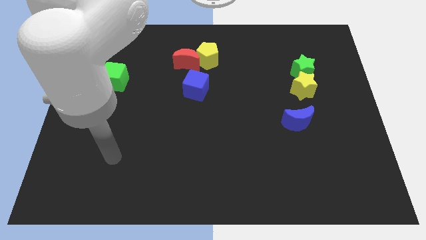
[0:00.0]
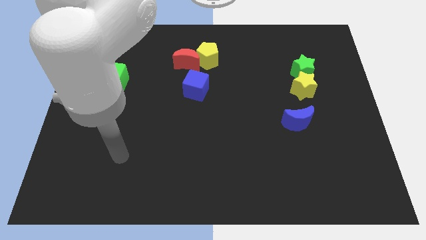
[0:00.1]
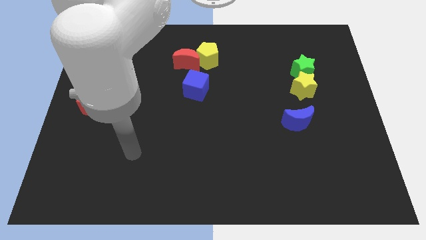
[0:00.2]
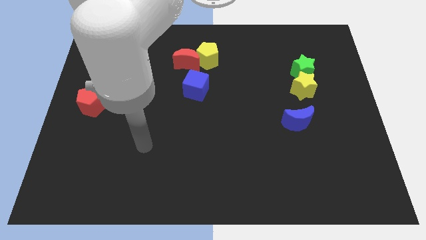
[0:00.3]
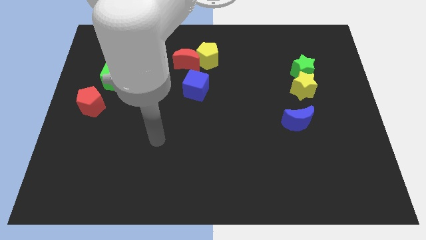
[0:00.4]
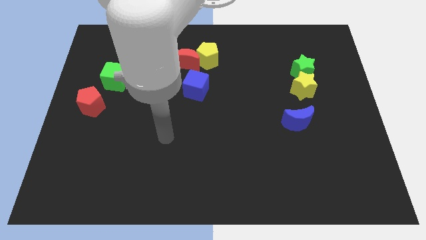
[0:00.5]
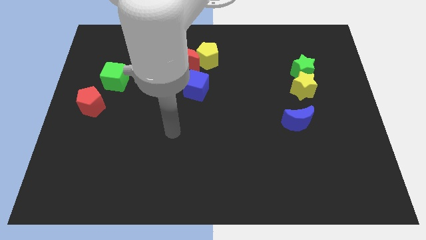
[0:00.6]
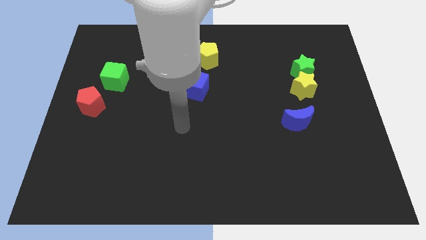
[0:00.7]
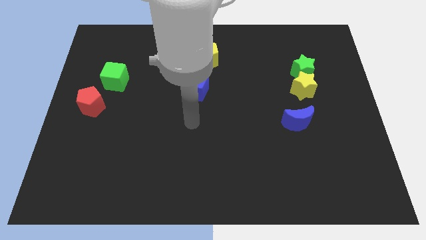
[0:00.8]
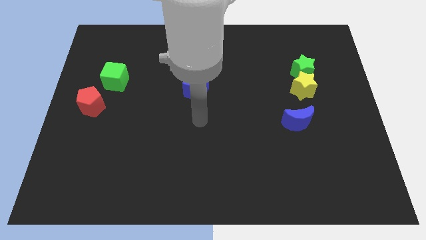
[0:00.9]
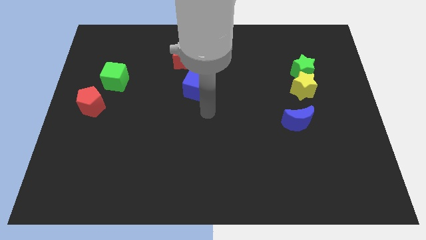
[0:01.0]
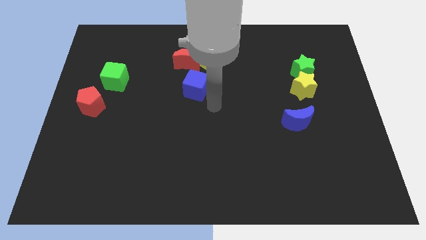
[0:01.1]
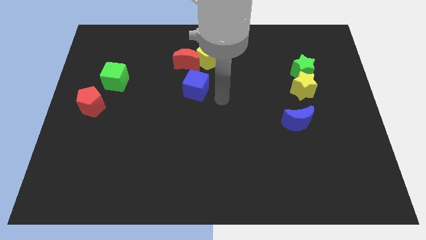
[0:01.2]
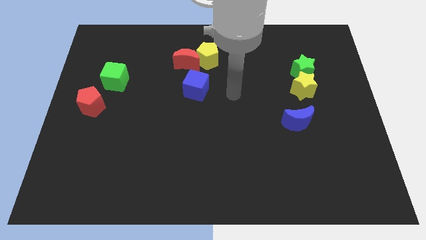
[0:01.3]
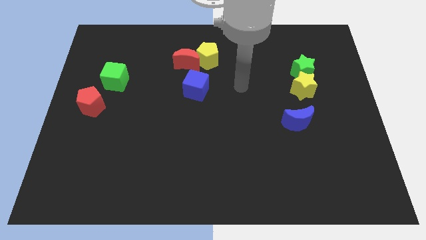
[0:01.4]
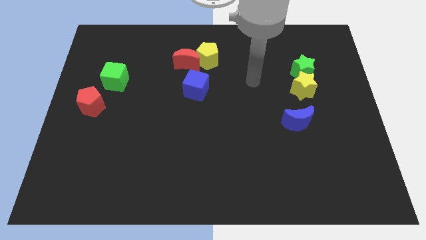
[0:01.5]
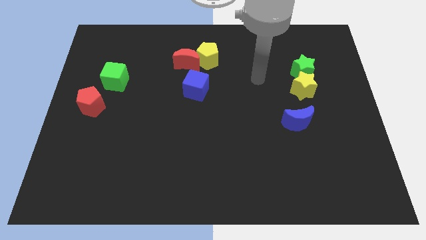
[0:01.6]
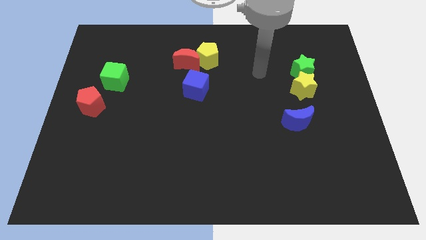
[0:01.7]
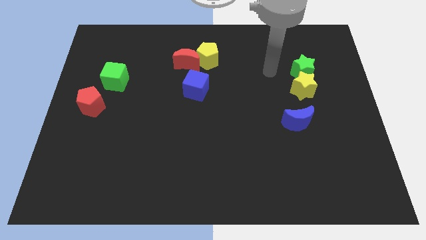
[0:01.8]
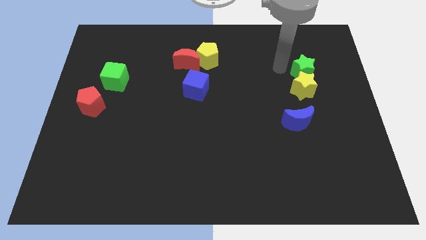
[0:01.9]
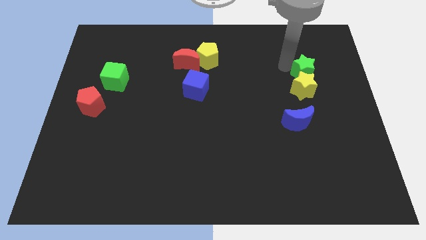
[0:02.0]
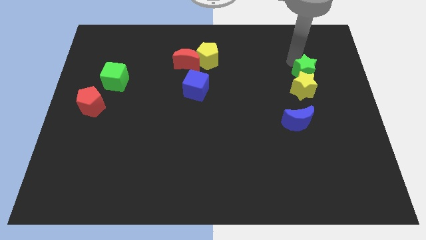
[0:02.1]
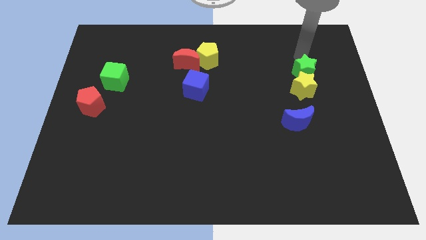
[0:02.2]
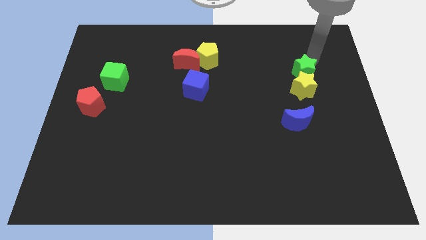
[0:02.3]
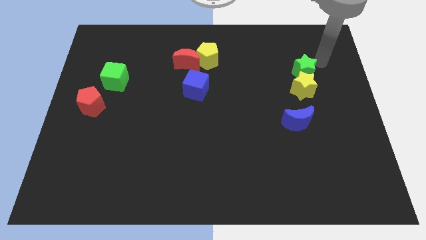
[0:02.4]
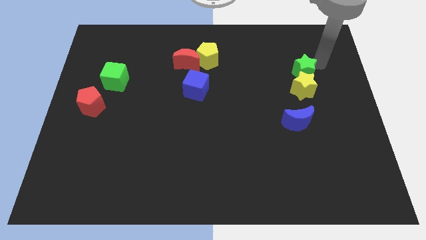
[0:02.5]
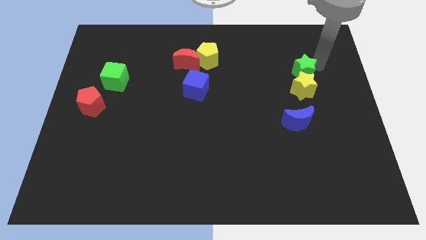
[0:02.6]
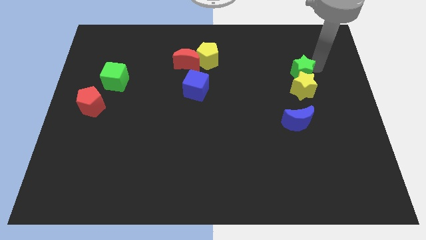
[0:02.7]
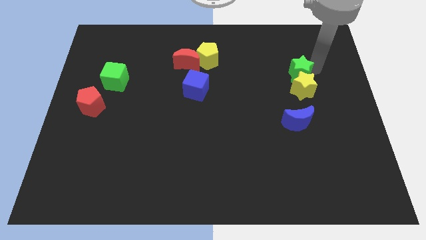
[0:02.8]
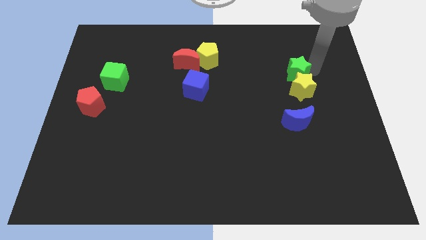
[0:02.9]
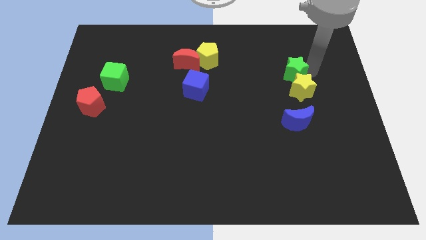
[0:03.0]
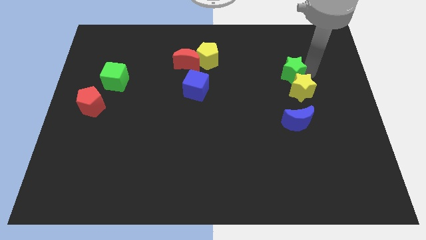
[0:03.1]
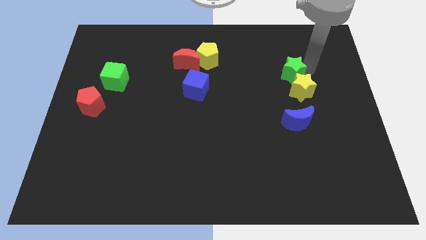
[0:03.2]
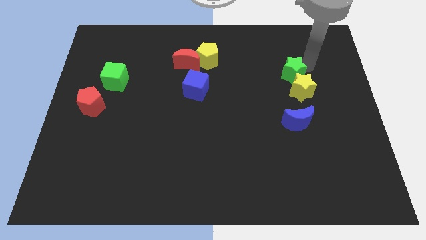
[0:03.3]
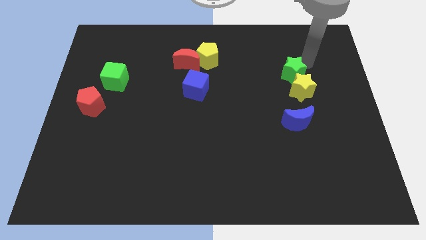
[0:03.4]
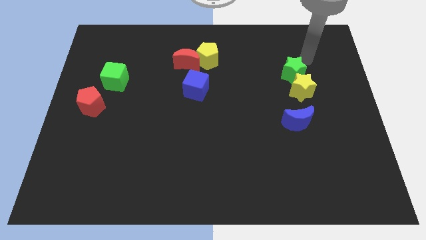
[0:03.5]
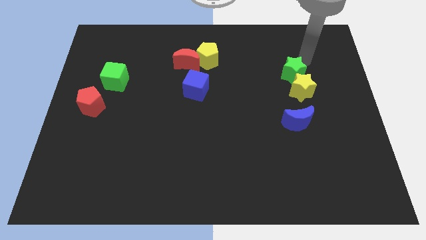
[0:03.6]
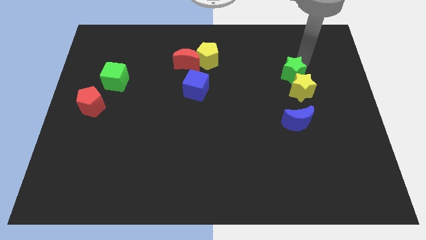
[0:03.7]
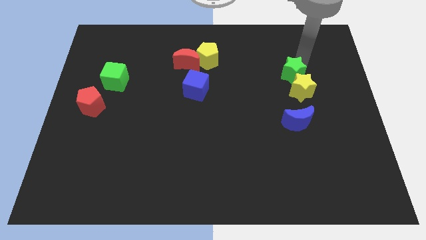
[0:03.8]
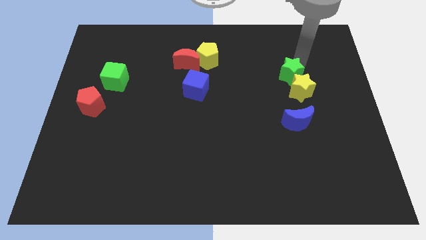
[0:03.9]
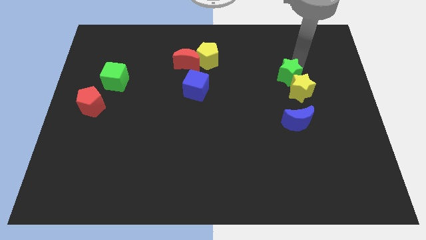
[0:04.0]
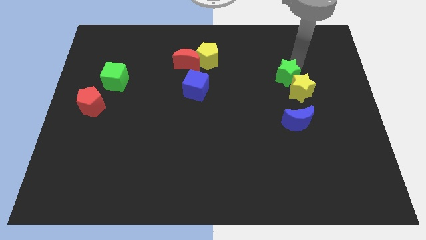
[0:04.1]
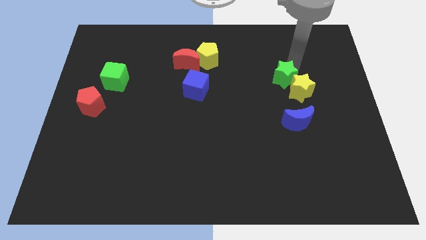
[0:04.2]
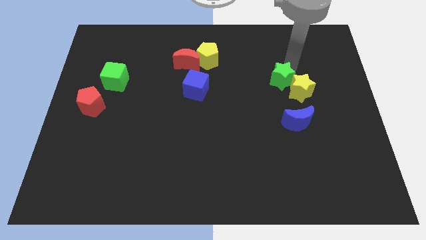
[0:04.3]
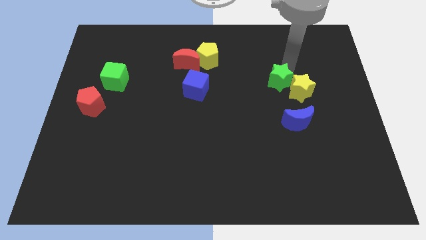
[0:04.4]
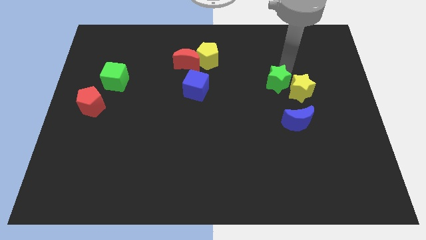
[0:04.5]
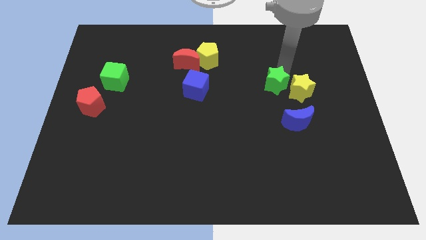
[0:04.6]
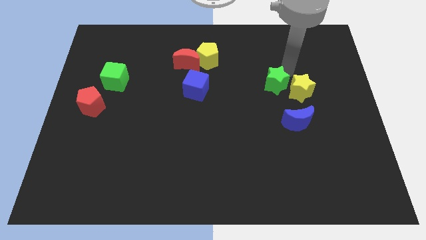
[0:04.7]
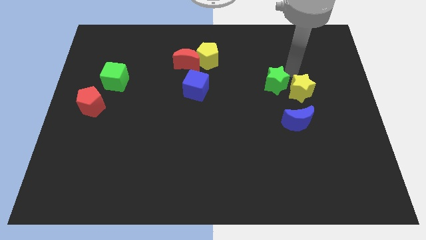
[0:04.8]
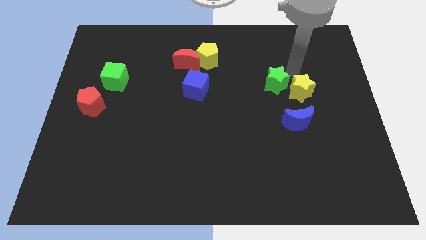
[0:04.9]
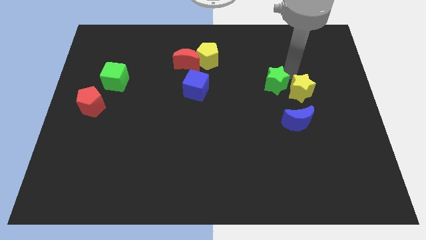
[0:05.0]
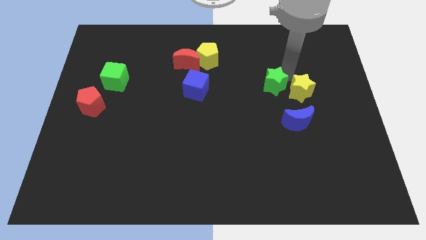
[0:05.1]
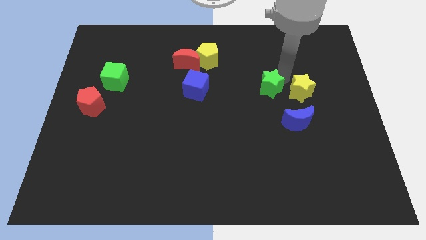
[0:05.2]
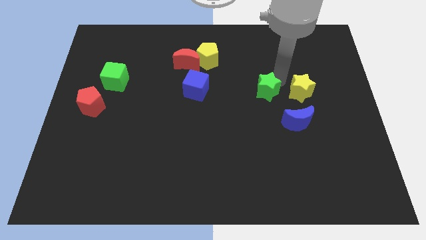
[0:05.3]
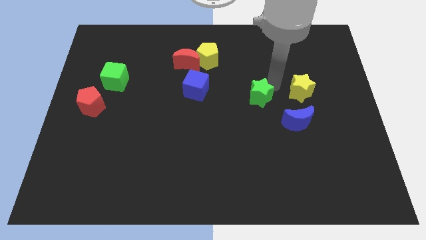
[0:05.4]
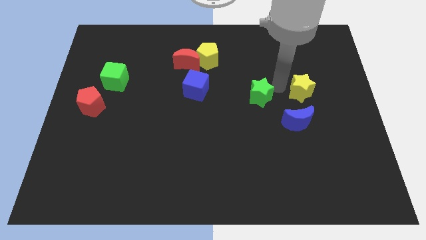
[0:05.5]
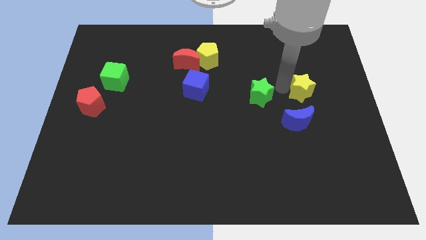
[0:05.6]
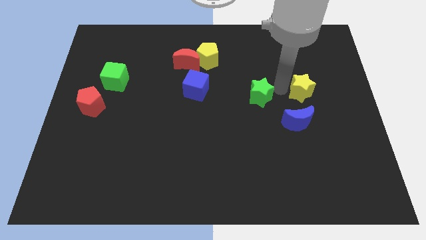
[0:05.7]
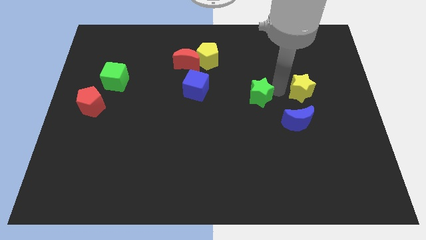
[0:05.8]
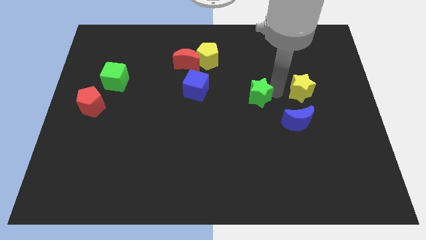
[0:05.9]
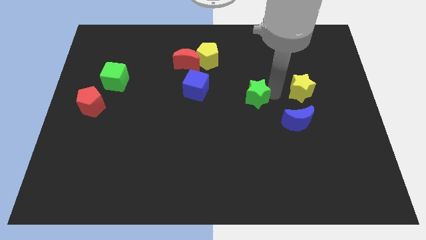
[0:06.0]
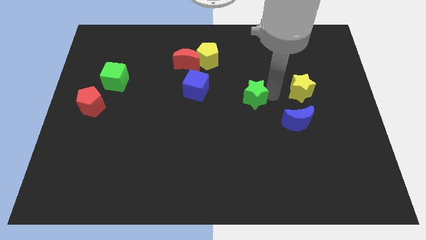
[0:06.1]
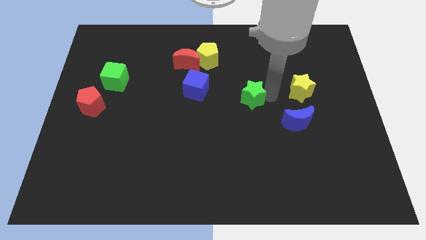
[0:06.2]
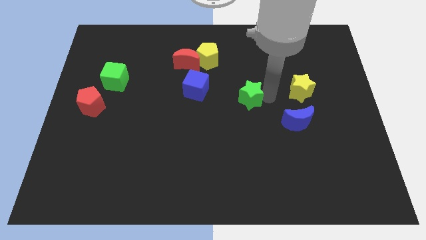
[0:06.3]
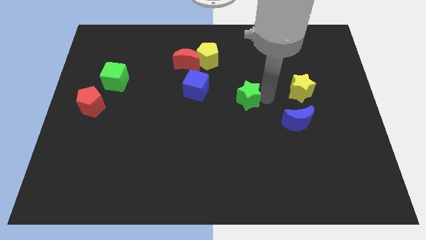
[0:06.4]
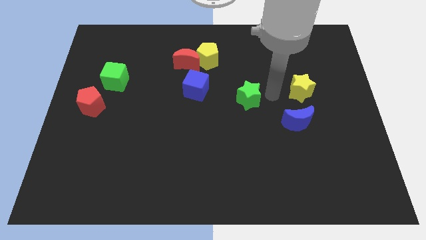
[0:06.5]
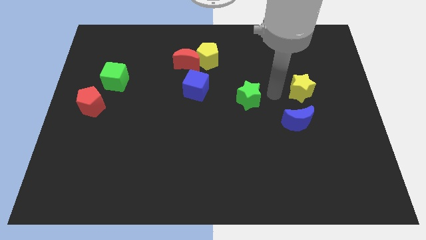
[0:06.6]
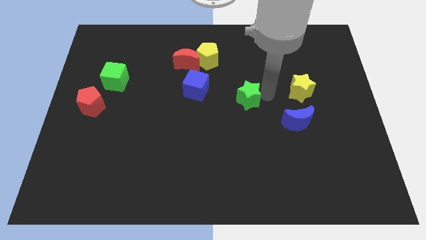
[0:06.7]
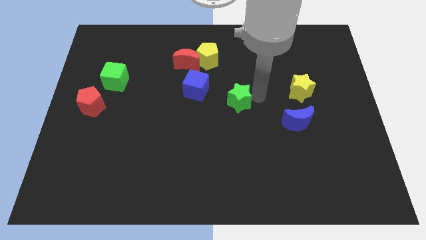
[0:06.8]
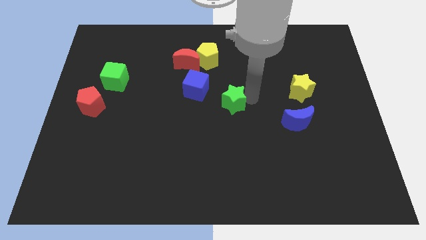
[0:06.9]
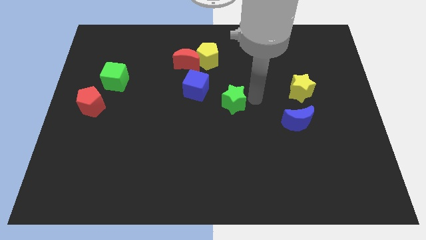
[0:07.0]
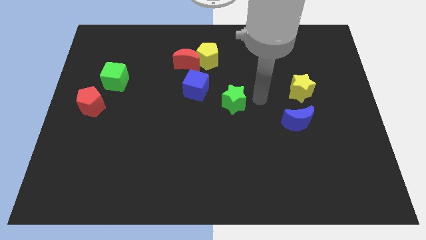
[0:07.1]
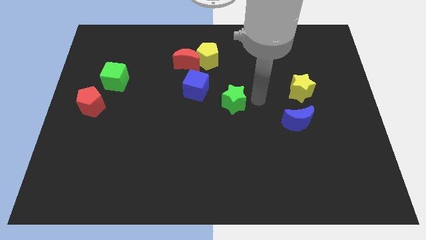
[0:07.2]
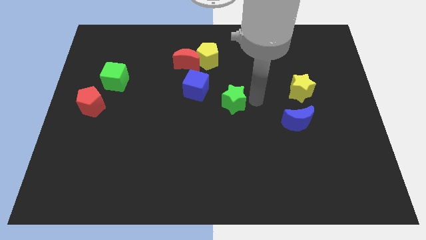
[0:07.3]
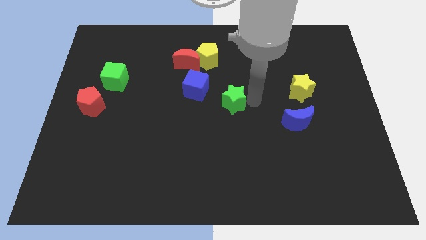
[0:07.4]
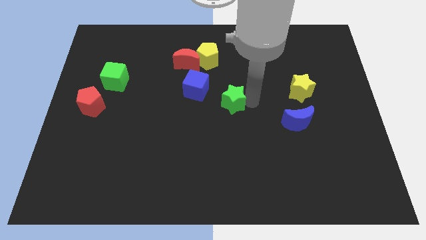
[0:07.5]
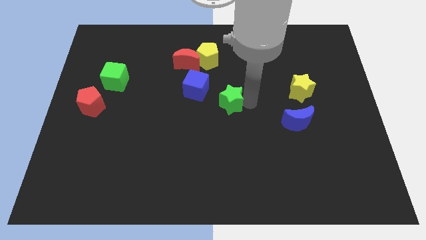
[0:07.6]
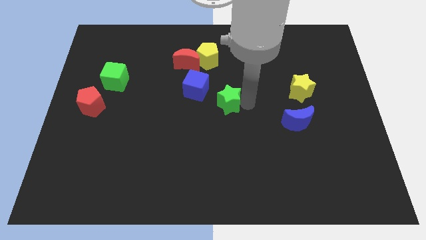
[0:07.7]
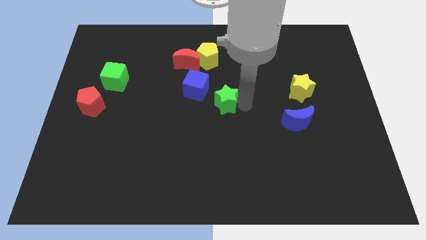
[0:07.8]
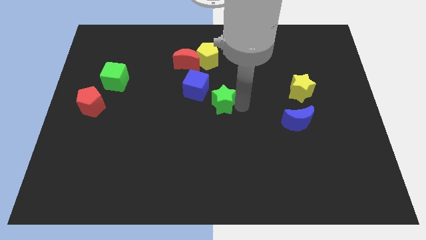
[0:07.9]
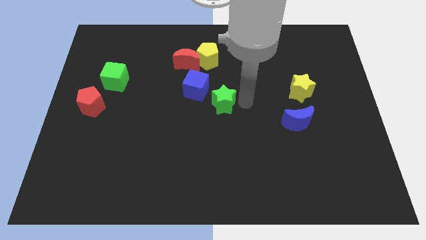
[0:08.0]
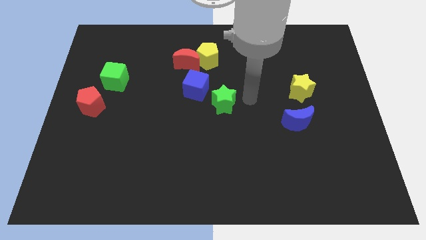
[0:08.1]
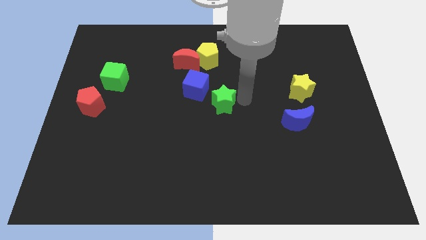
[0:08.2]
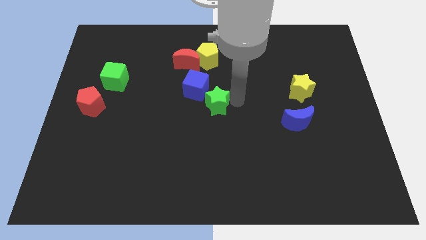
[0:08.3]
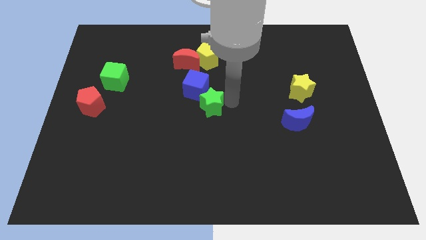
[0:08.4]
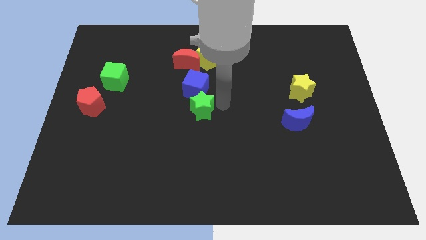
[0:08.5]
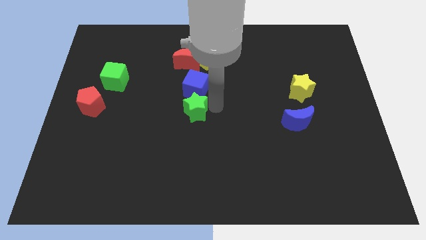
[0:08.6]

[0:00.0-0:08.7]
move the green star diagonally down and to the left of the blue cube
